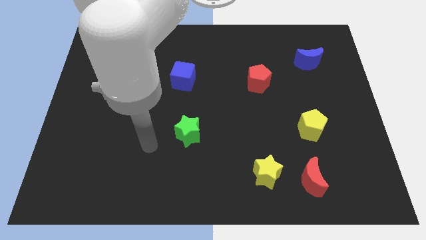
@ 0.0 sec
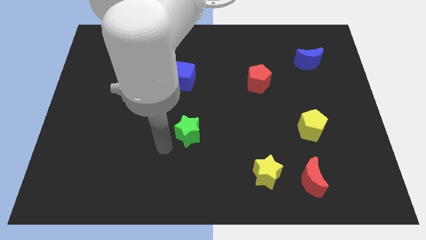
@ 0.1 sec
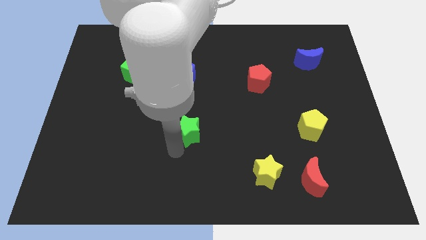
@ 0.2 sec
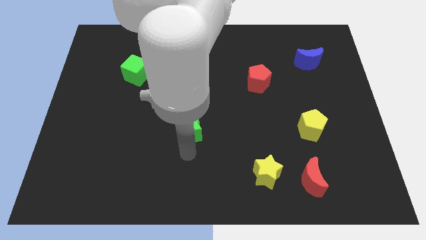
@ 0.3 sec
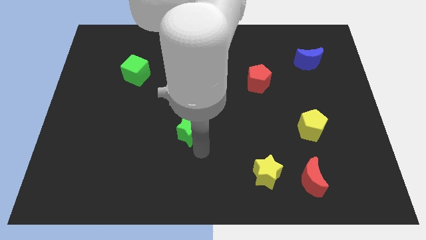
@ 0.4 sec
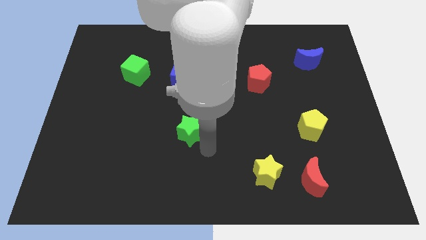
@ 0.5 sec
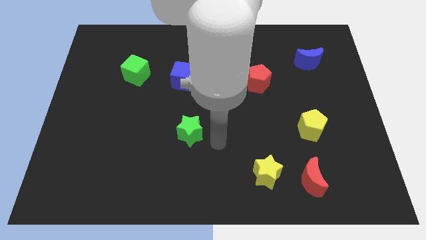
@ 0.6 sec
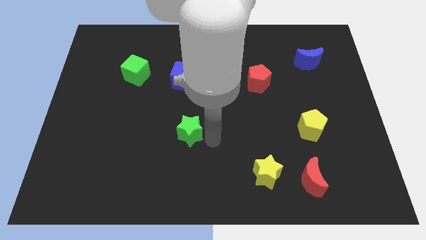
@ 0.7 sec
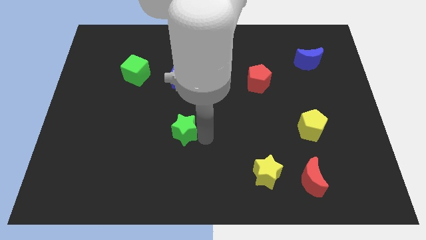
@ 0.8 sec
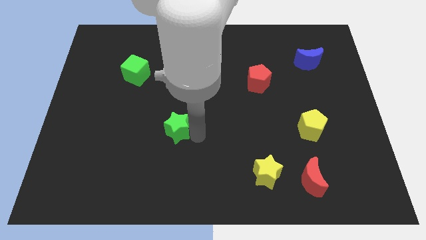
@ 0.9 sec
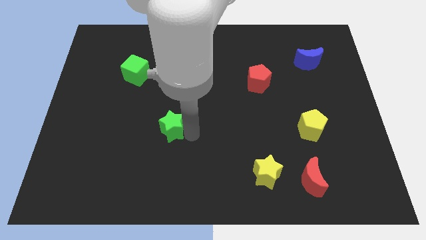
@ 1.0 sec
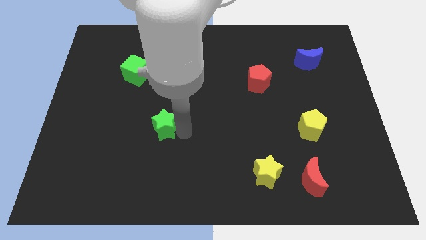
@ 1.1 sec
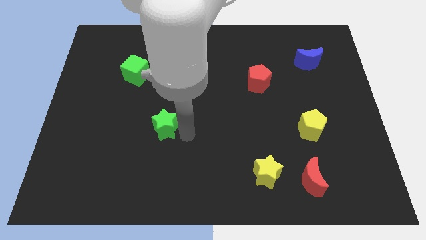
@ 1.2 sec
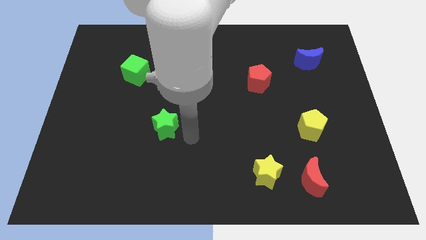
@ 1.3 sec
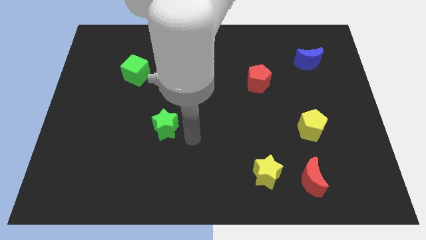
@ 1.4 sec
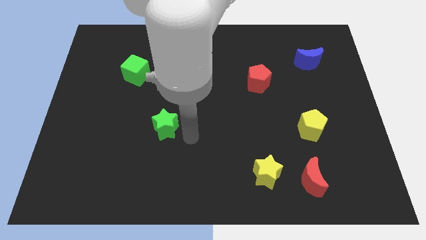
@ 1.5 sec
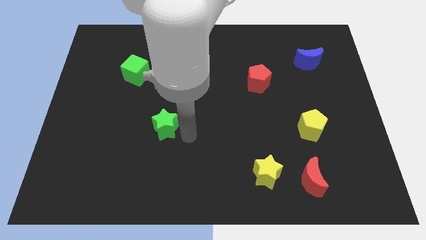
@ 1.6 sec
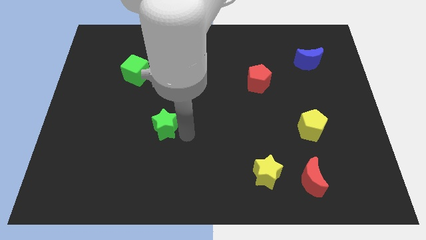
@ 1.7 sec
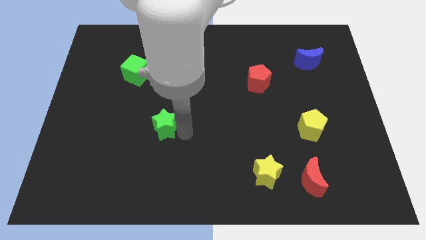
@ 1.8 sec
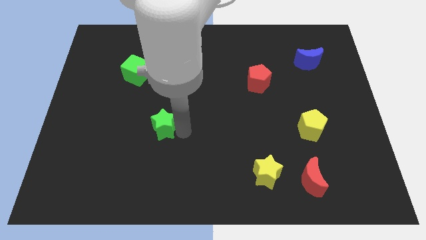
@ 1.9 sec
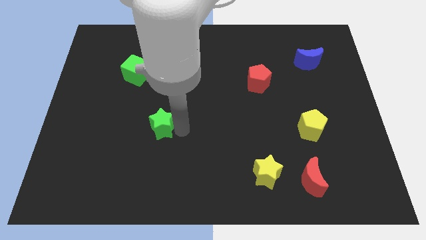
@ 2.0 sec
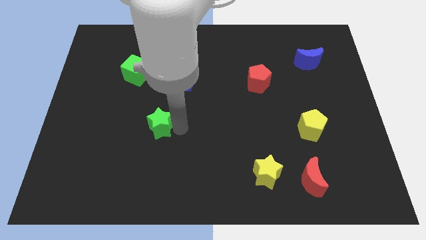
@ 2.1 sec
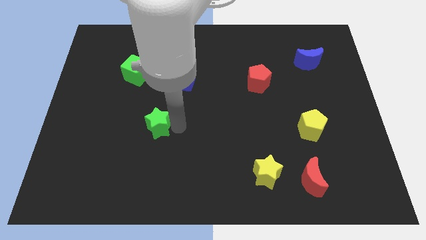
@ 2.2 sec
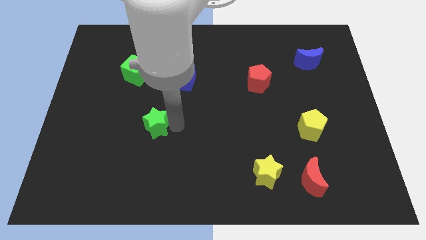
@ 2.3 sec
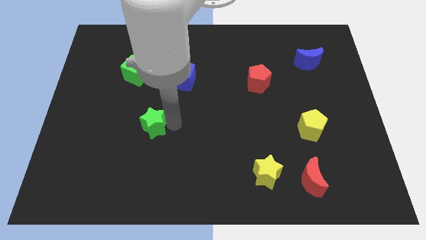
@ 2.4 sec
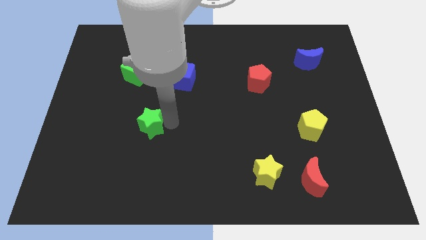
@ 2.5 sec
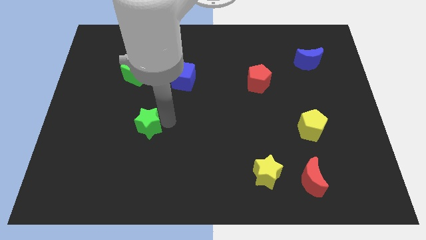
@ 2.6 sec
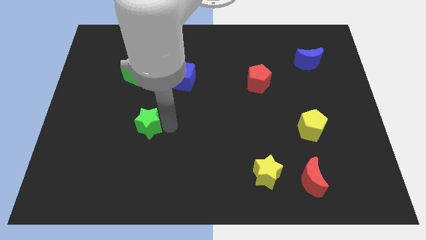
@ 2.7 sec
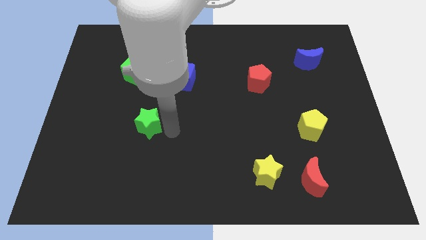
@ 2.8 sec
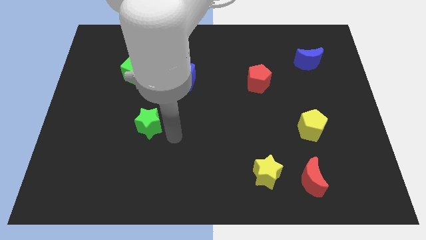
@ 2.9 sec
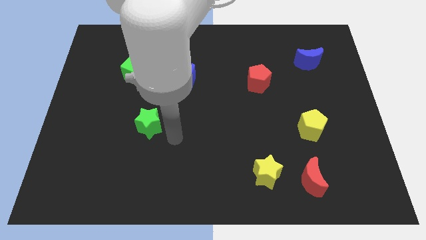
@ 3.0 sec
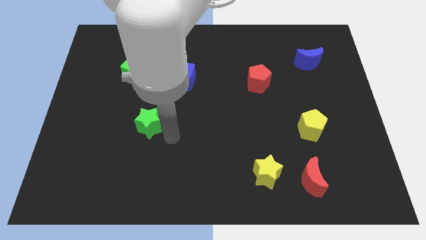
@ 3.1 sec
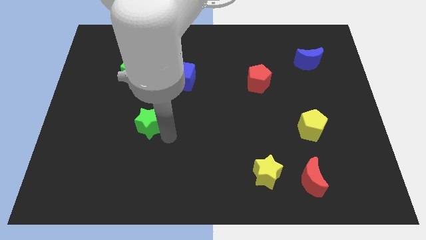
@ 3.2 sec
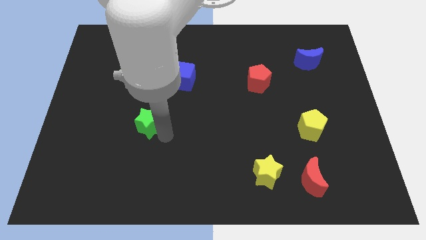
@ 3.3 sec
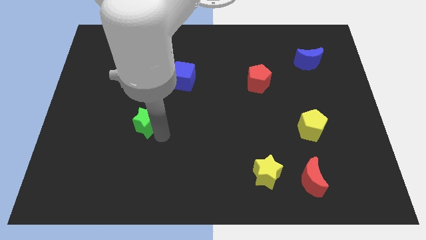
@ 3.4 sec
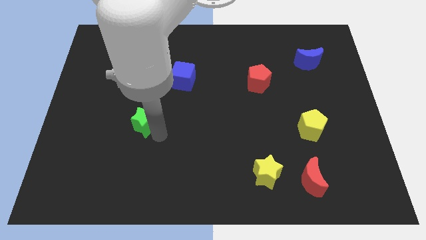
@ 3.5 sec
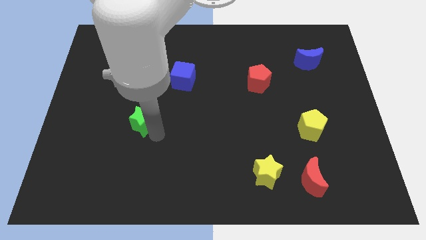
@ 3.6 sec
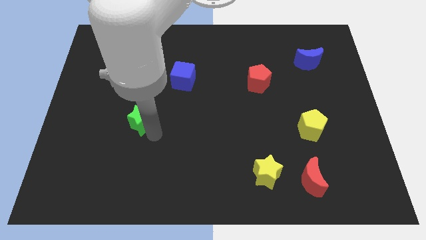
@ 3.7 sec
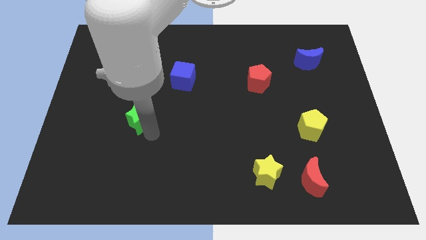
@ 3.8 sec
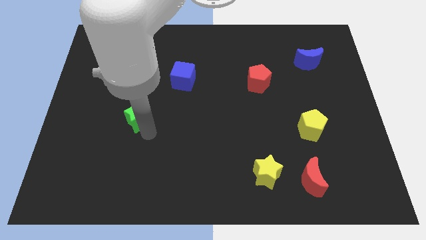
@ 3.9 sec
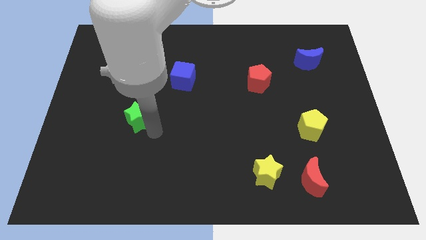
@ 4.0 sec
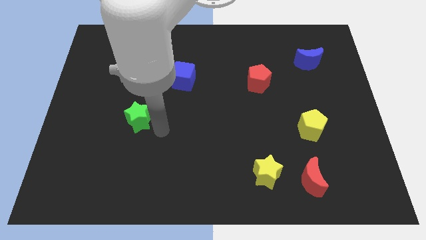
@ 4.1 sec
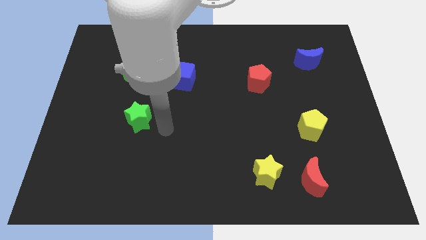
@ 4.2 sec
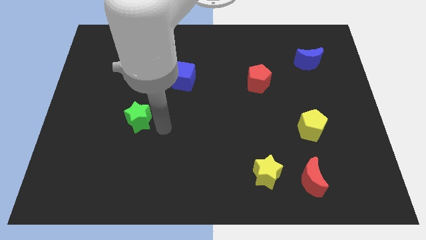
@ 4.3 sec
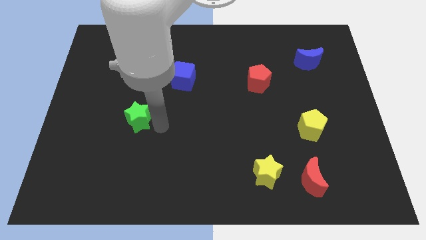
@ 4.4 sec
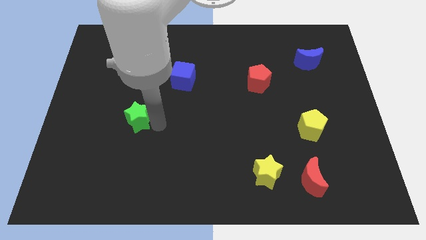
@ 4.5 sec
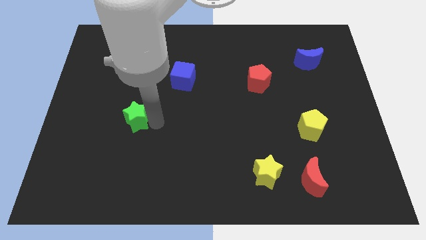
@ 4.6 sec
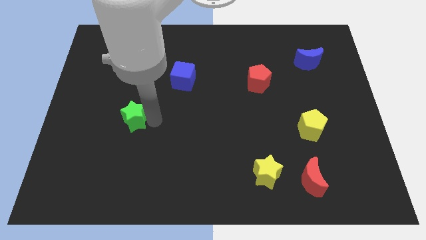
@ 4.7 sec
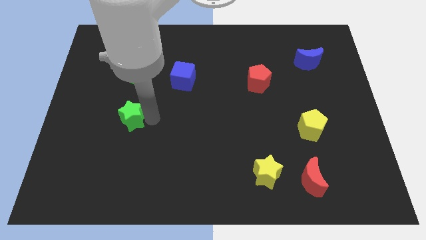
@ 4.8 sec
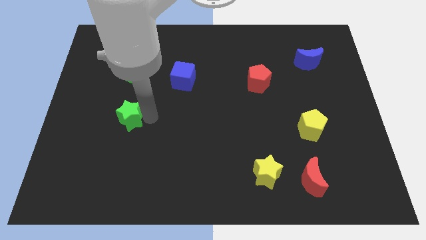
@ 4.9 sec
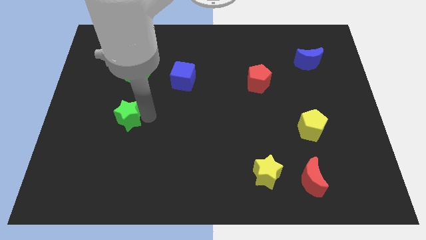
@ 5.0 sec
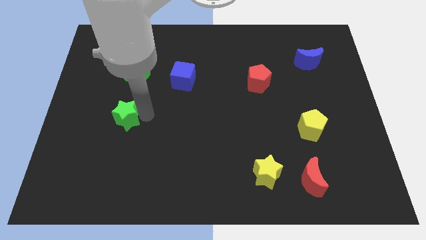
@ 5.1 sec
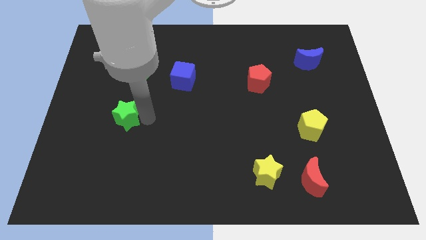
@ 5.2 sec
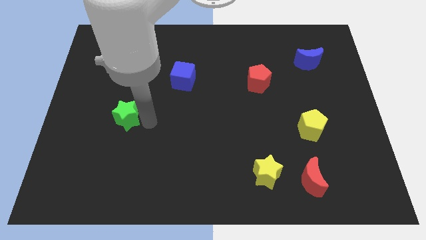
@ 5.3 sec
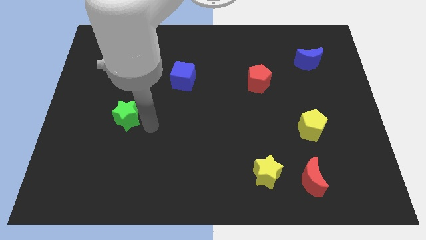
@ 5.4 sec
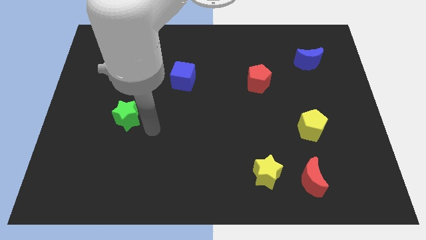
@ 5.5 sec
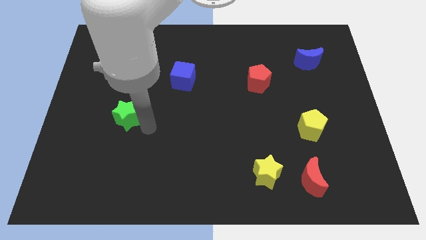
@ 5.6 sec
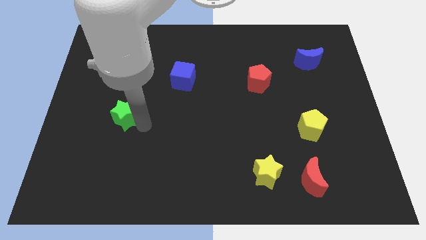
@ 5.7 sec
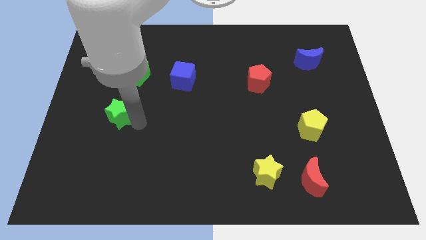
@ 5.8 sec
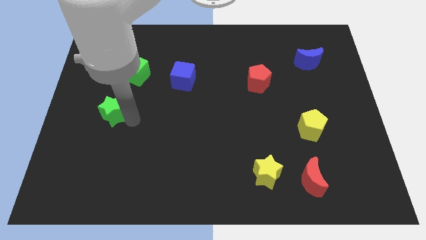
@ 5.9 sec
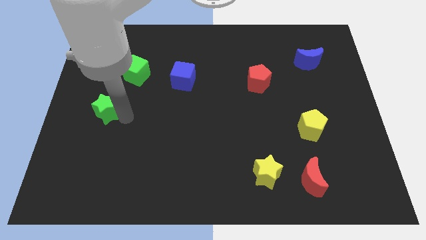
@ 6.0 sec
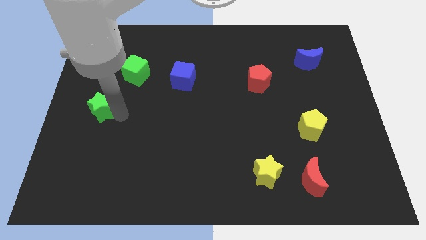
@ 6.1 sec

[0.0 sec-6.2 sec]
push the green star to the center left
